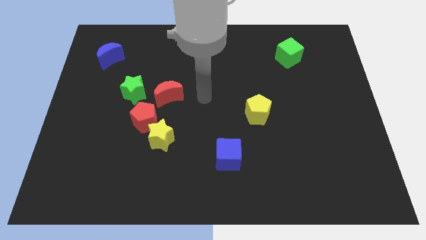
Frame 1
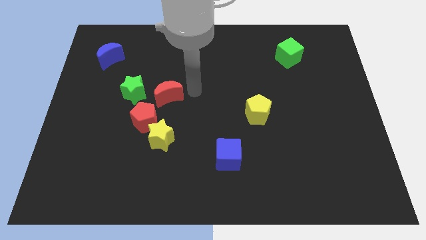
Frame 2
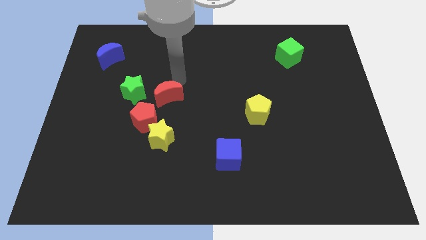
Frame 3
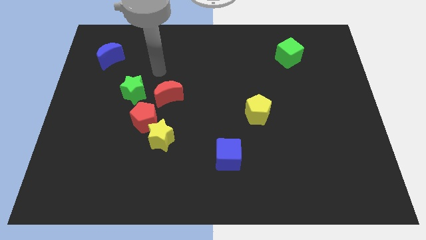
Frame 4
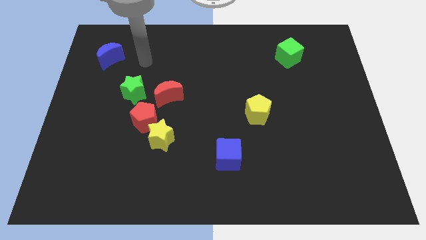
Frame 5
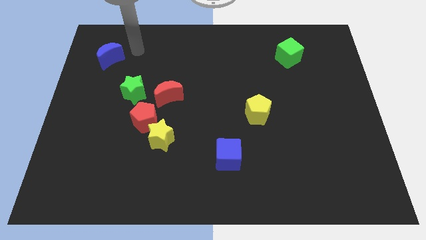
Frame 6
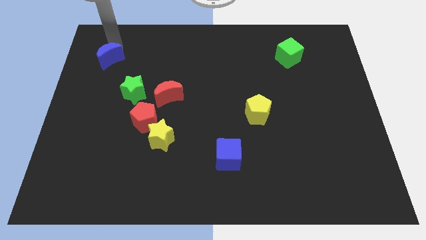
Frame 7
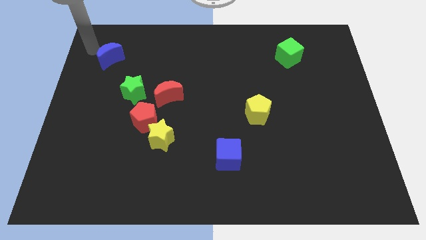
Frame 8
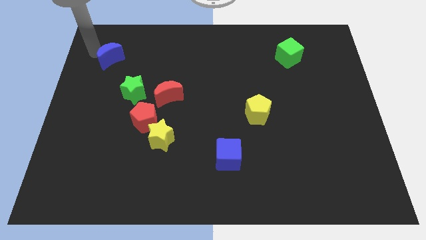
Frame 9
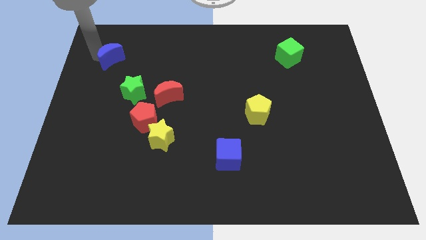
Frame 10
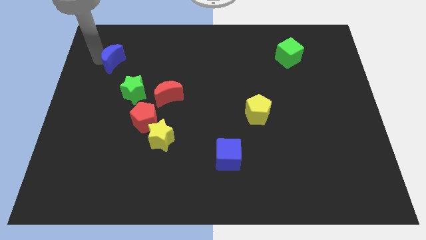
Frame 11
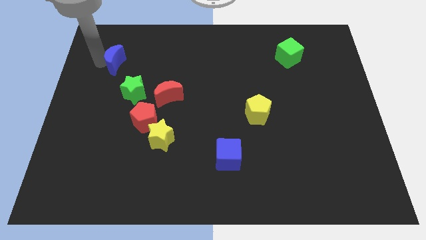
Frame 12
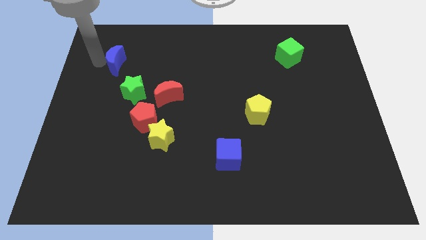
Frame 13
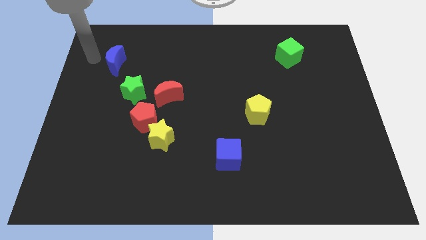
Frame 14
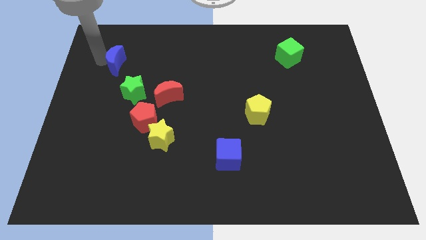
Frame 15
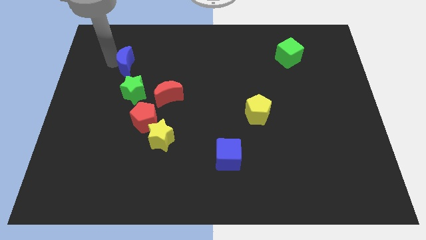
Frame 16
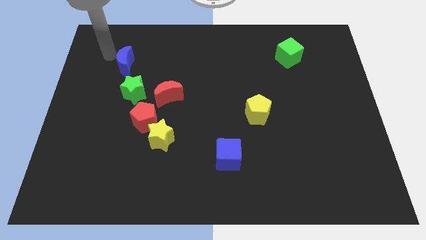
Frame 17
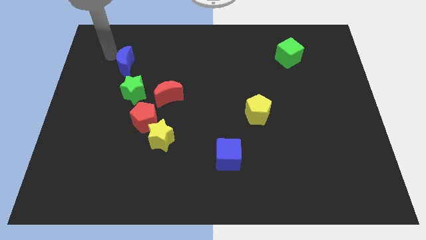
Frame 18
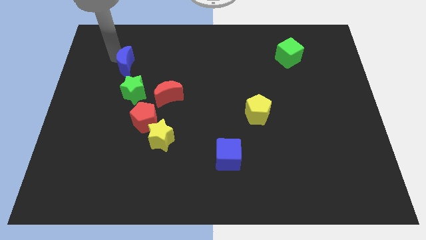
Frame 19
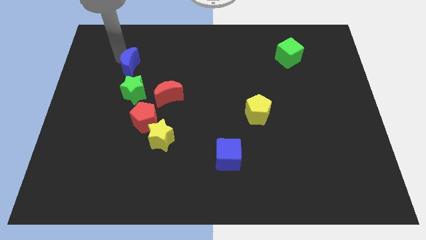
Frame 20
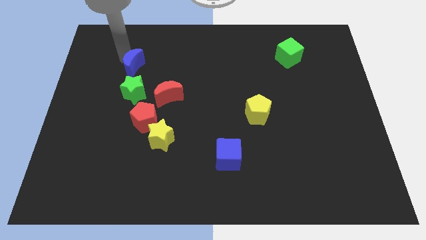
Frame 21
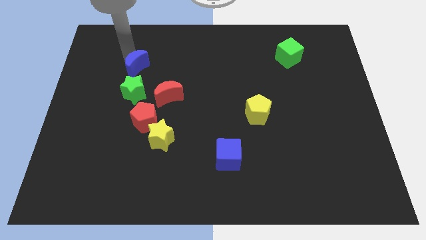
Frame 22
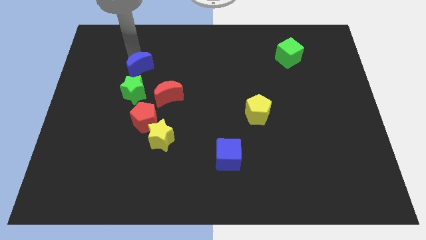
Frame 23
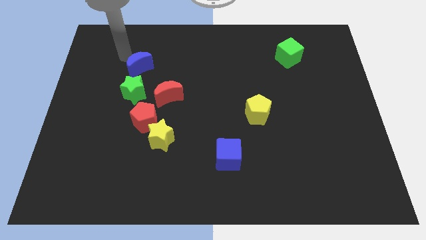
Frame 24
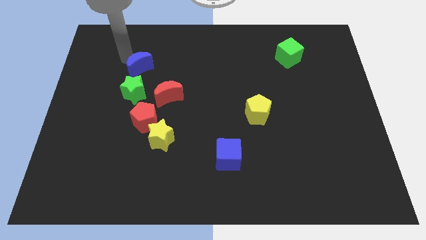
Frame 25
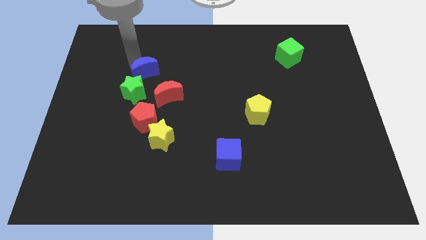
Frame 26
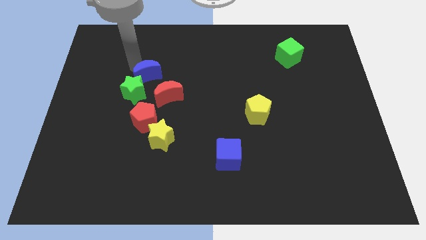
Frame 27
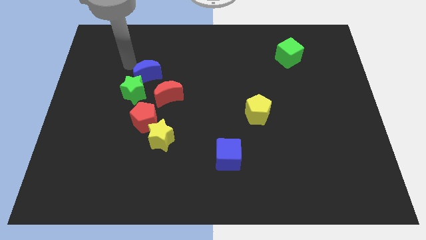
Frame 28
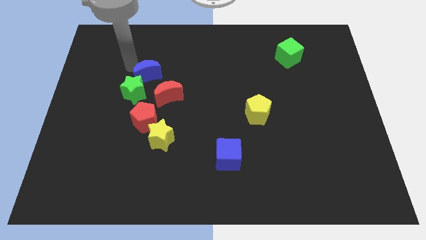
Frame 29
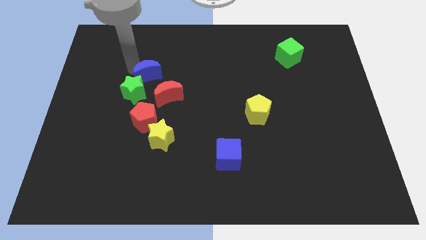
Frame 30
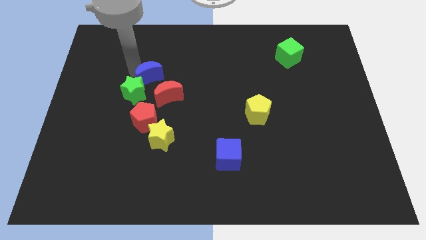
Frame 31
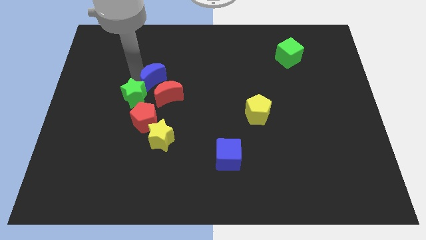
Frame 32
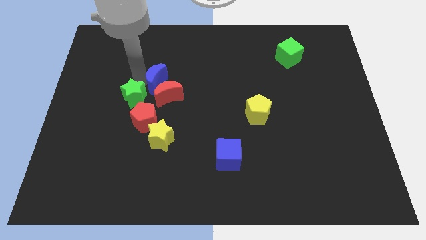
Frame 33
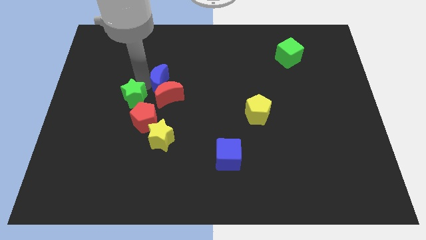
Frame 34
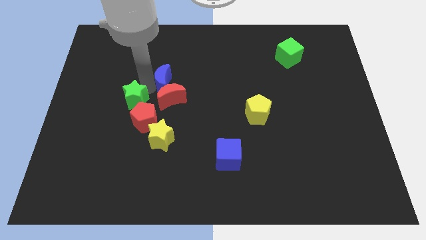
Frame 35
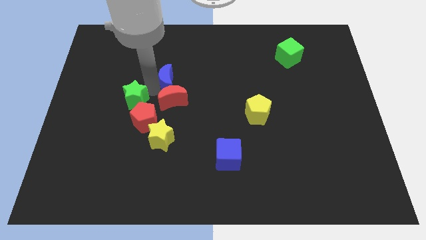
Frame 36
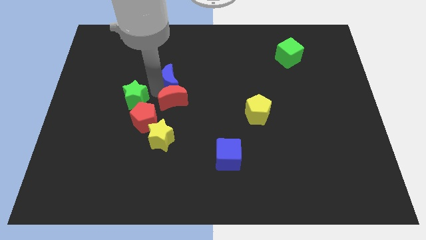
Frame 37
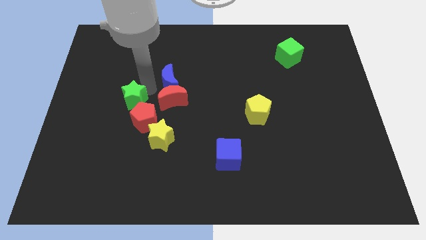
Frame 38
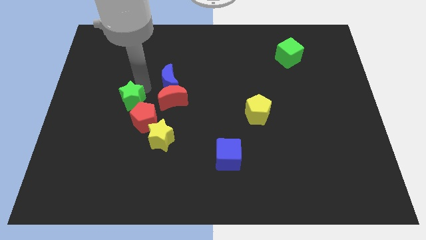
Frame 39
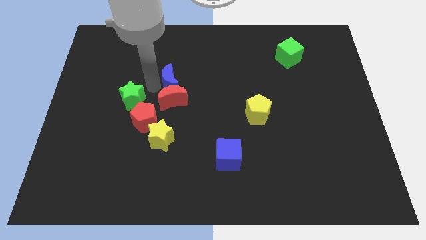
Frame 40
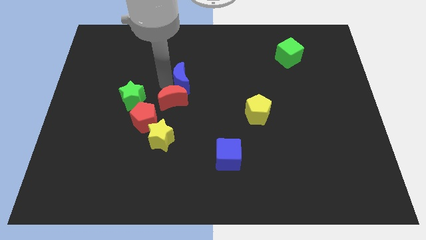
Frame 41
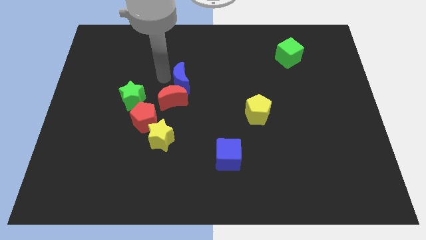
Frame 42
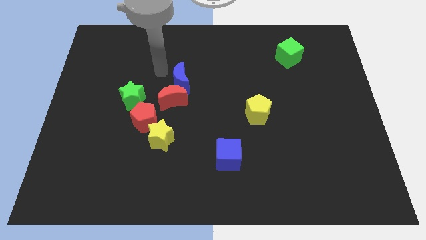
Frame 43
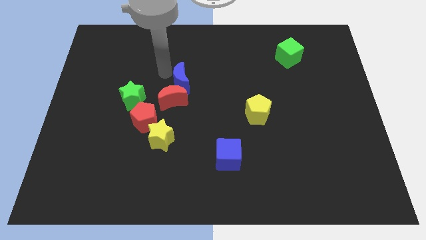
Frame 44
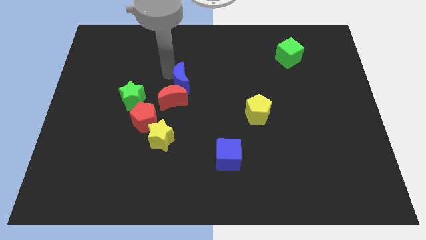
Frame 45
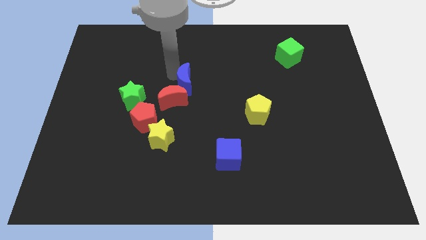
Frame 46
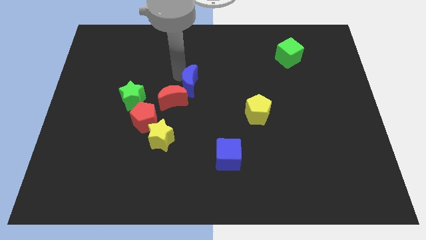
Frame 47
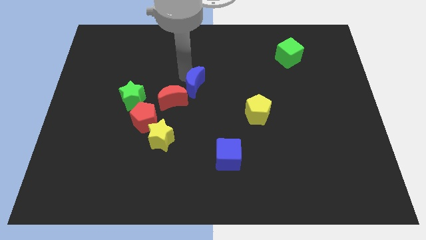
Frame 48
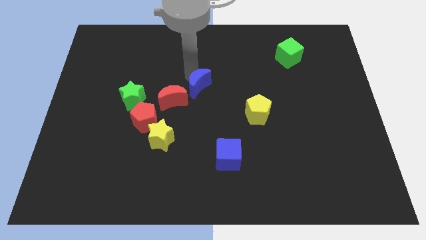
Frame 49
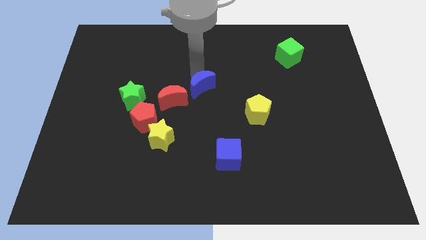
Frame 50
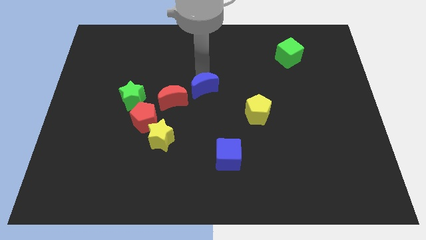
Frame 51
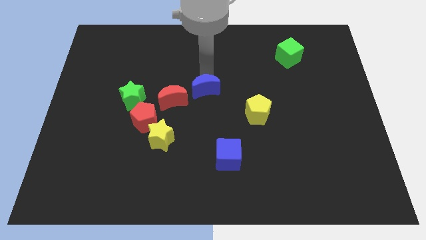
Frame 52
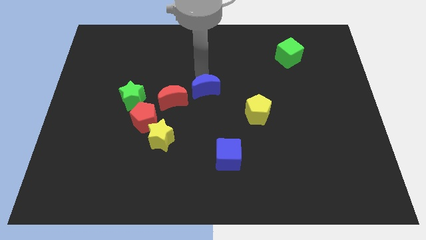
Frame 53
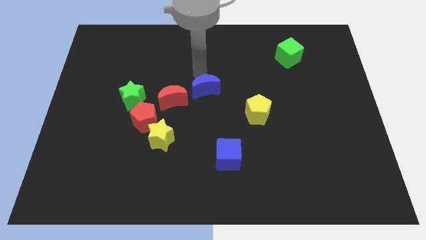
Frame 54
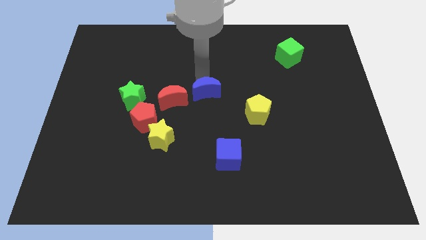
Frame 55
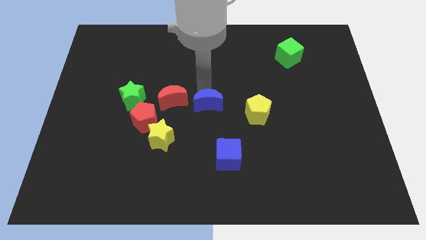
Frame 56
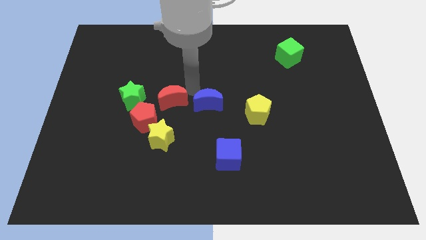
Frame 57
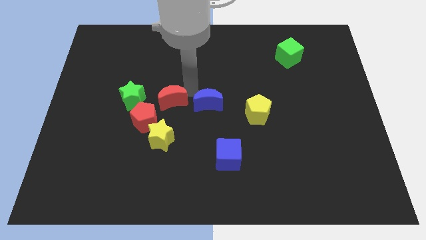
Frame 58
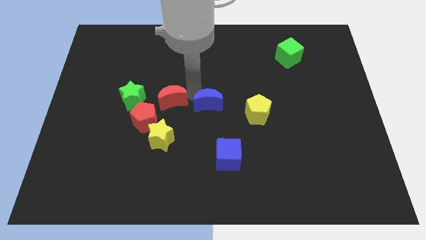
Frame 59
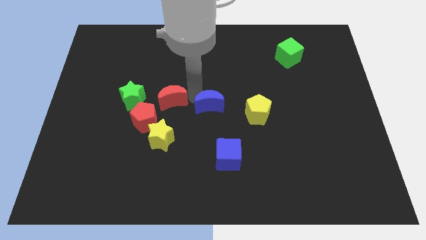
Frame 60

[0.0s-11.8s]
slide the blue moon to the top of the blue cube

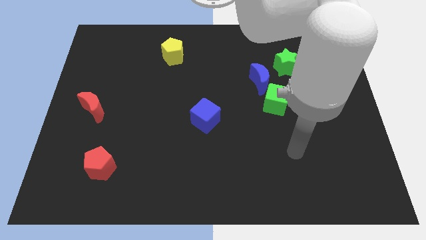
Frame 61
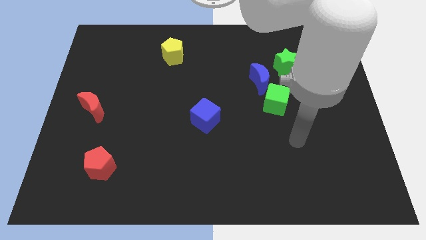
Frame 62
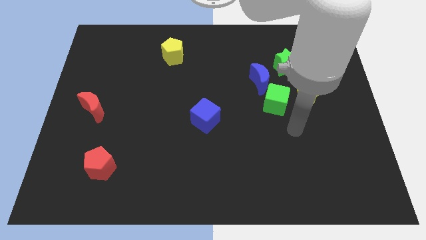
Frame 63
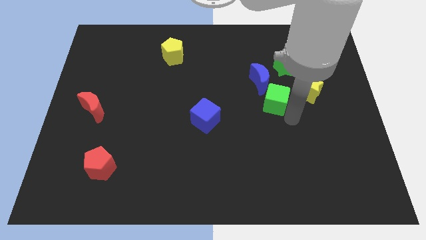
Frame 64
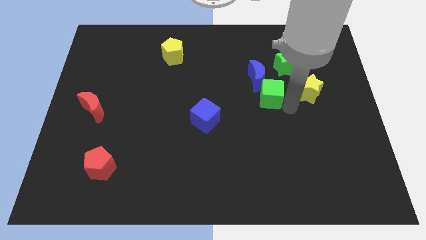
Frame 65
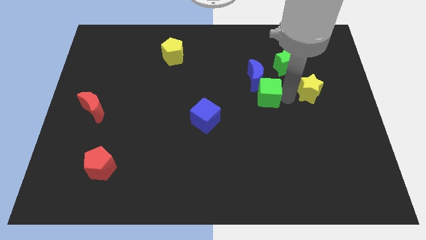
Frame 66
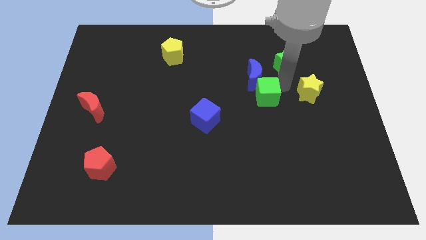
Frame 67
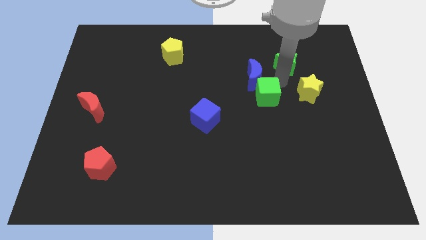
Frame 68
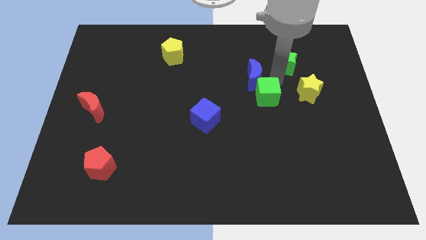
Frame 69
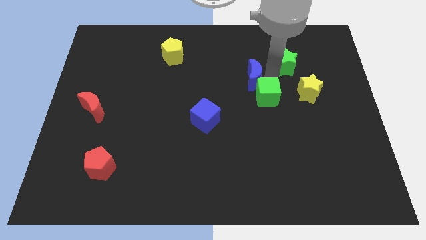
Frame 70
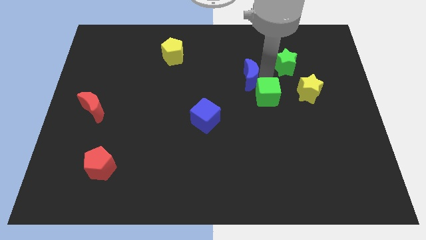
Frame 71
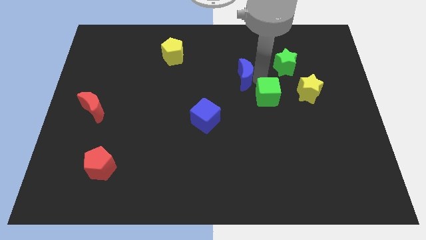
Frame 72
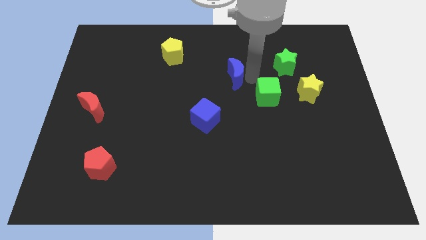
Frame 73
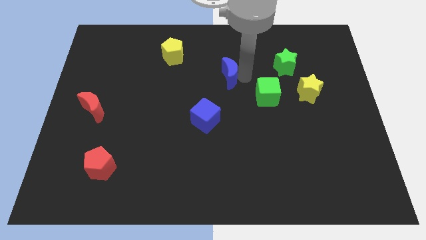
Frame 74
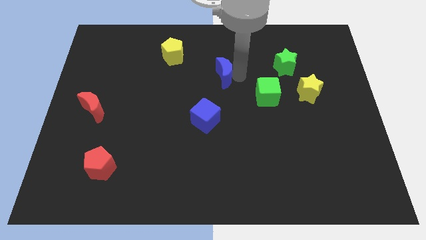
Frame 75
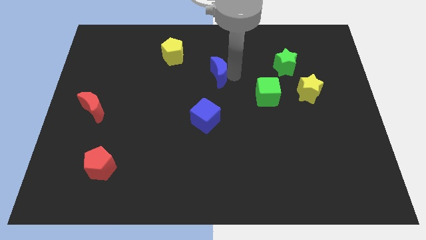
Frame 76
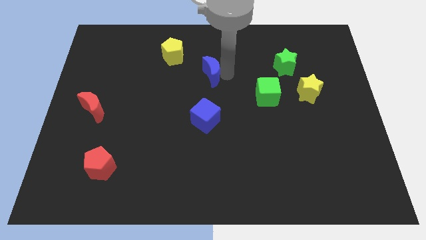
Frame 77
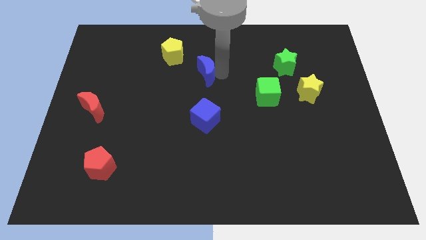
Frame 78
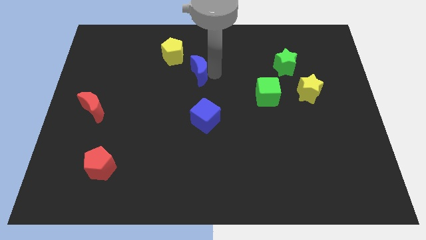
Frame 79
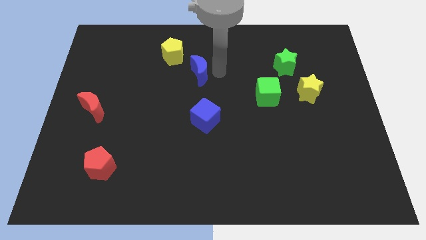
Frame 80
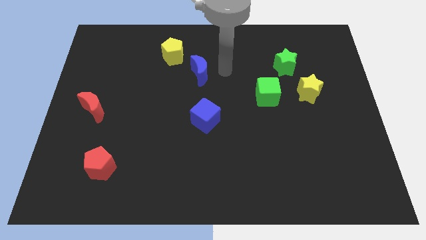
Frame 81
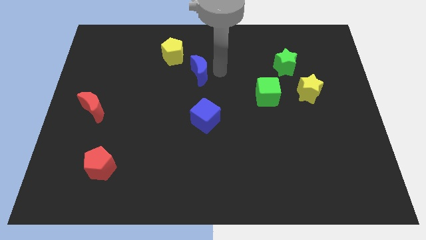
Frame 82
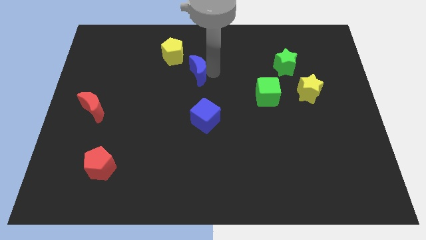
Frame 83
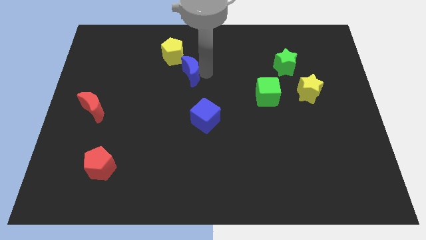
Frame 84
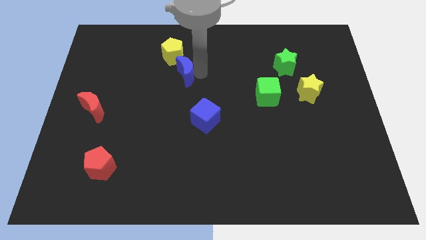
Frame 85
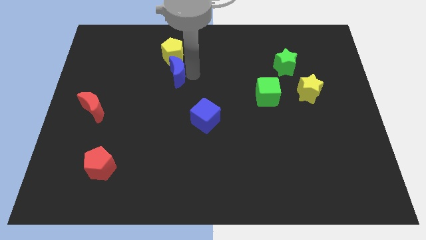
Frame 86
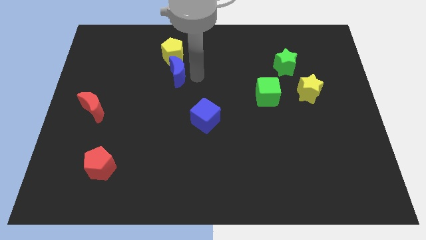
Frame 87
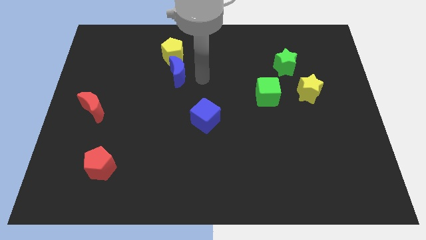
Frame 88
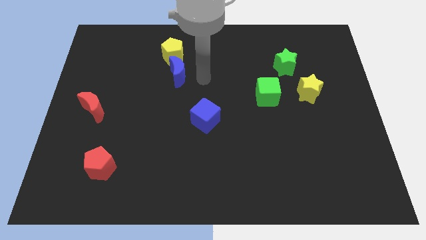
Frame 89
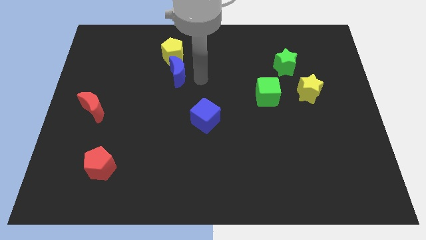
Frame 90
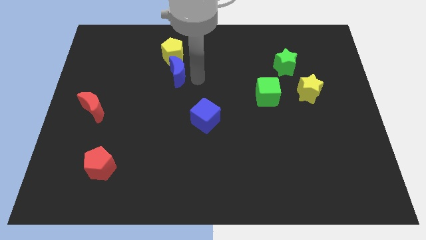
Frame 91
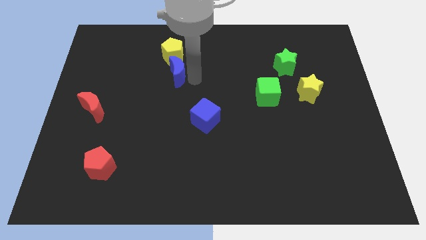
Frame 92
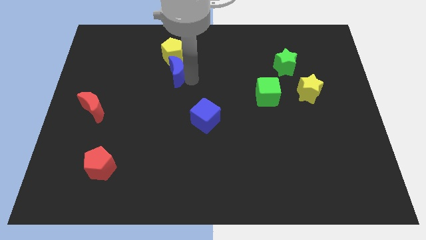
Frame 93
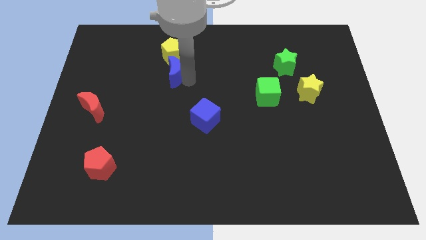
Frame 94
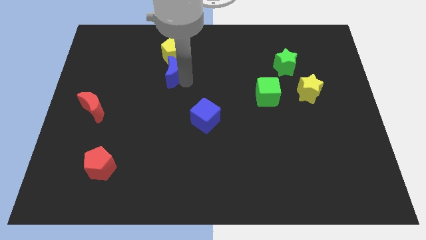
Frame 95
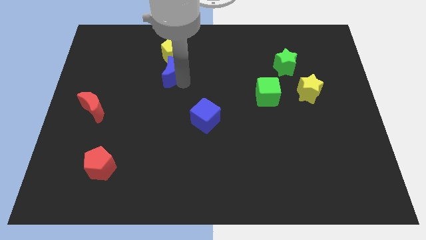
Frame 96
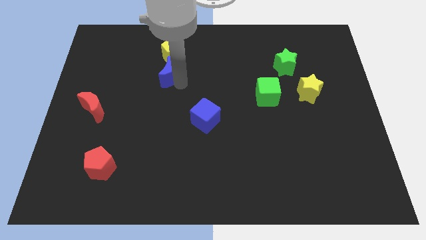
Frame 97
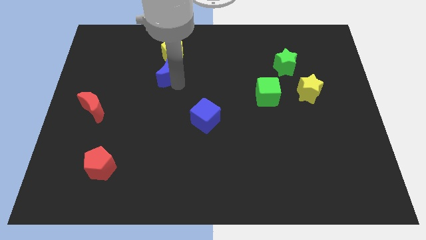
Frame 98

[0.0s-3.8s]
push the blue moon to the bottom left side of the yellow pentagon
